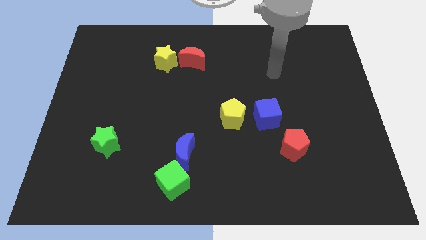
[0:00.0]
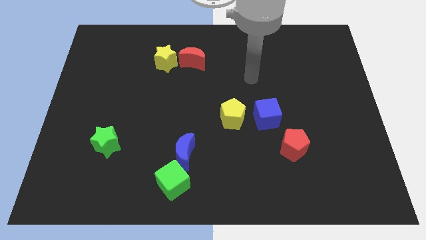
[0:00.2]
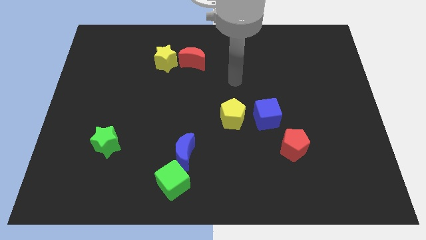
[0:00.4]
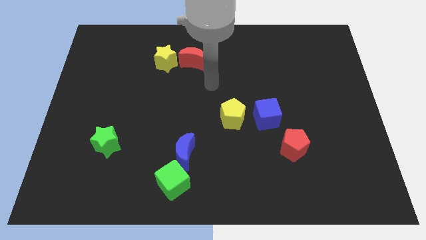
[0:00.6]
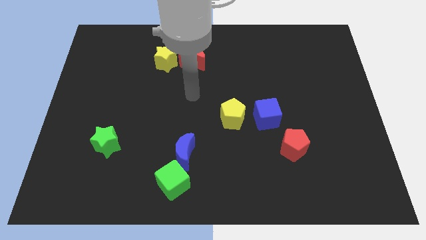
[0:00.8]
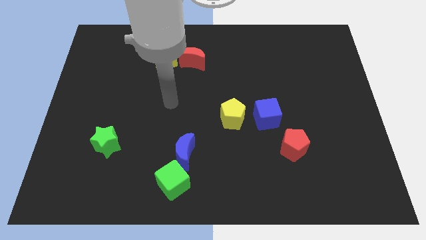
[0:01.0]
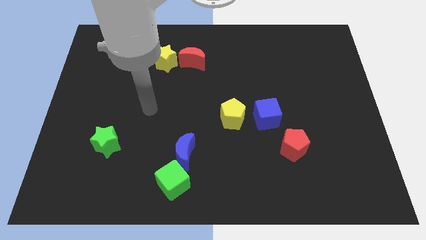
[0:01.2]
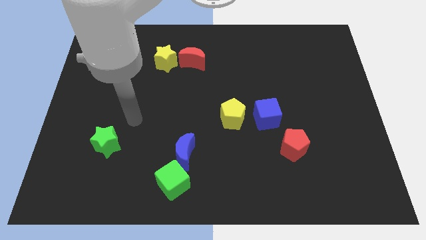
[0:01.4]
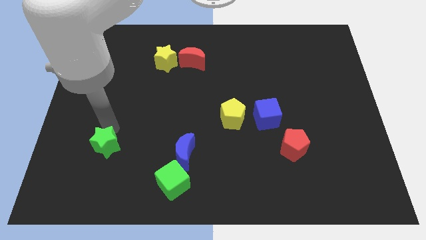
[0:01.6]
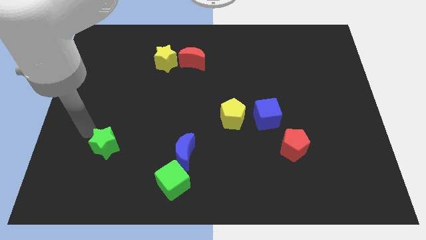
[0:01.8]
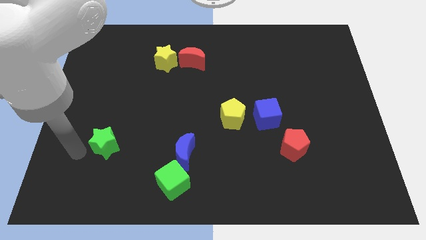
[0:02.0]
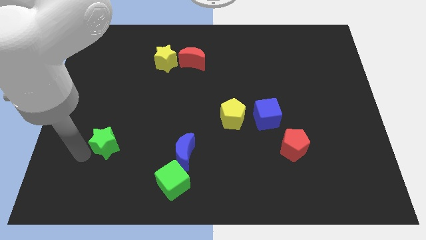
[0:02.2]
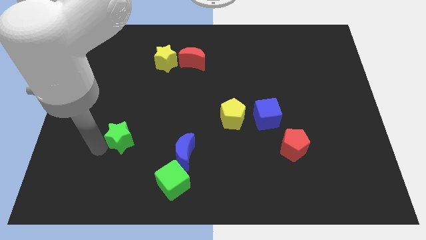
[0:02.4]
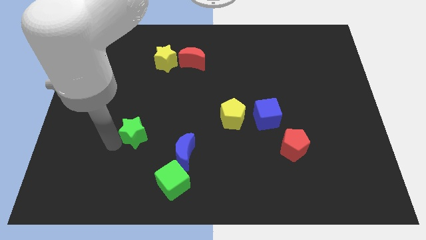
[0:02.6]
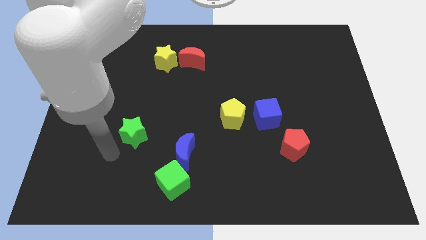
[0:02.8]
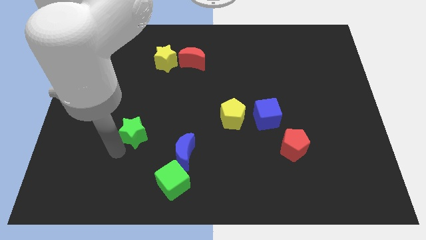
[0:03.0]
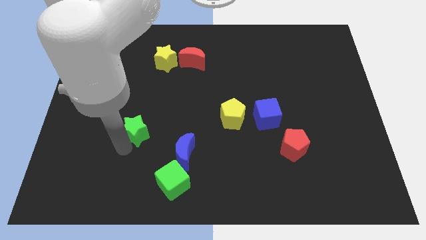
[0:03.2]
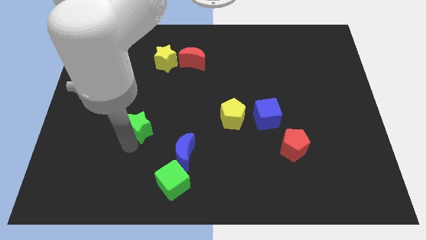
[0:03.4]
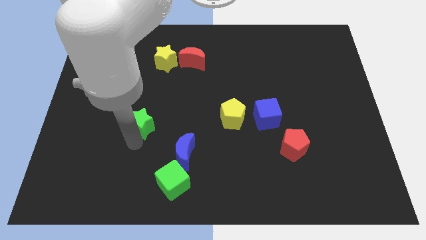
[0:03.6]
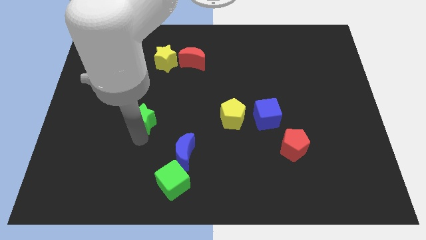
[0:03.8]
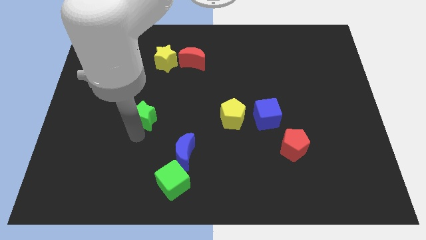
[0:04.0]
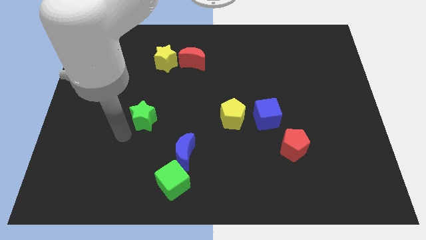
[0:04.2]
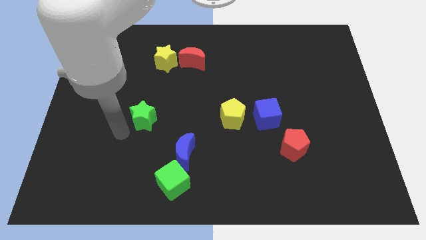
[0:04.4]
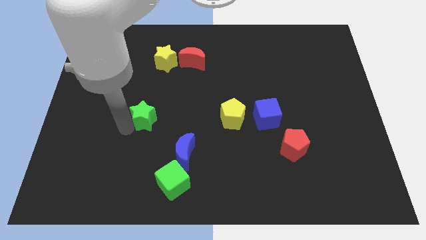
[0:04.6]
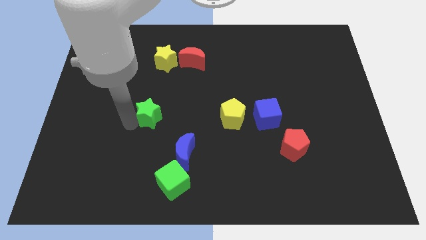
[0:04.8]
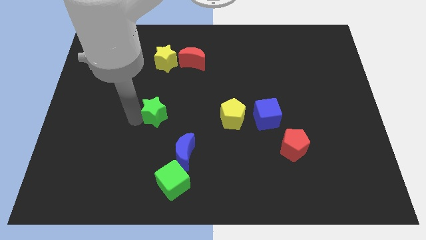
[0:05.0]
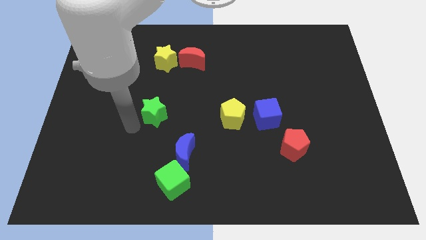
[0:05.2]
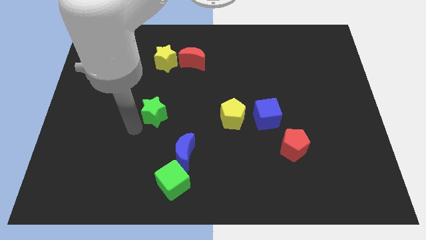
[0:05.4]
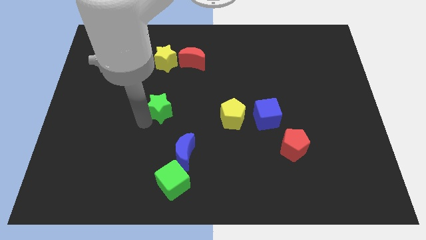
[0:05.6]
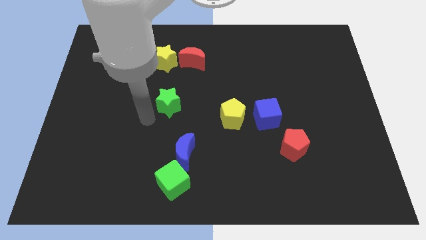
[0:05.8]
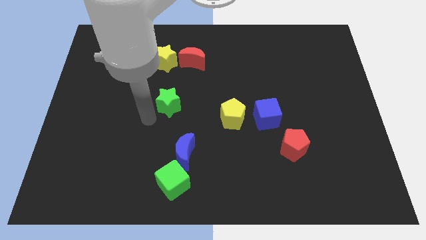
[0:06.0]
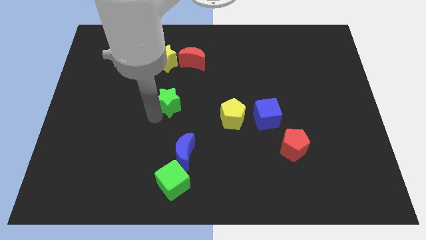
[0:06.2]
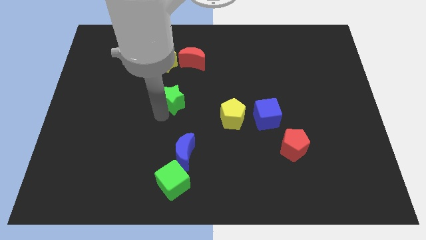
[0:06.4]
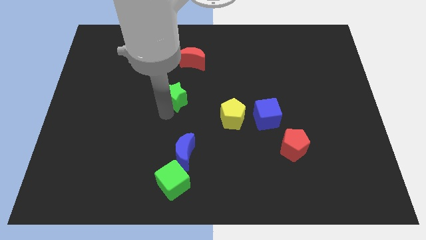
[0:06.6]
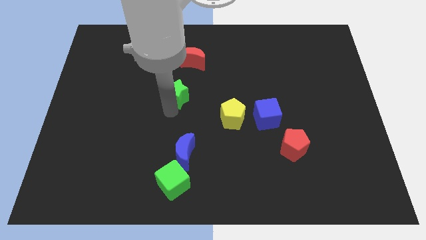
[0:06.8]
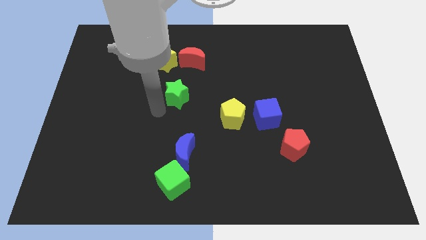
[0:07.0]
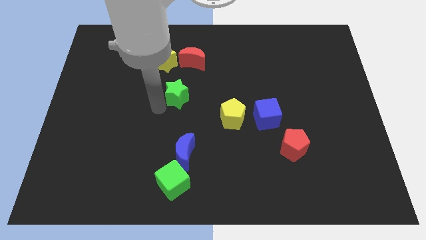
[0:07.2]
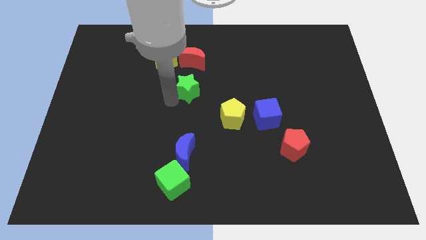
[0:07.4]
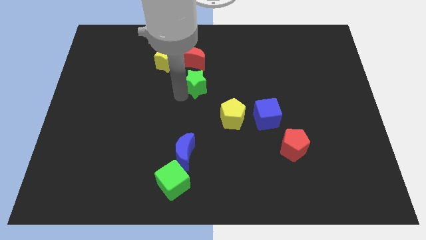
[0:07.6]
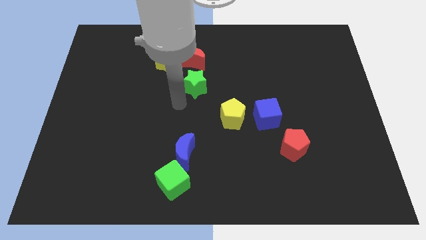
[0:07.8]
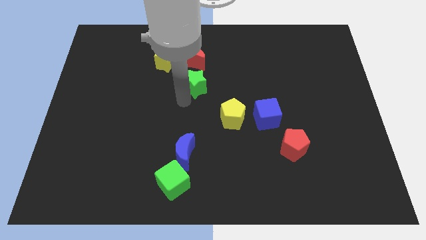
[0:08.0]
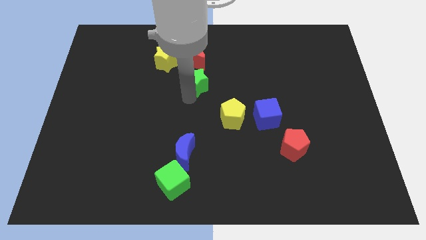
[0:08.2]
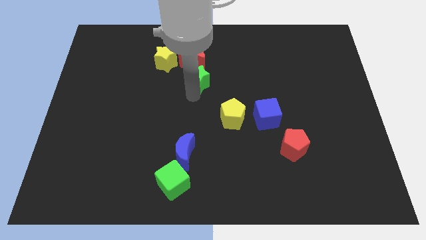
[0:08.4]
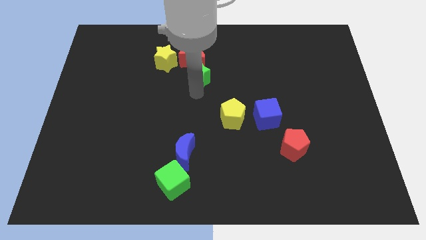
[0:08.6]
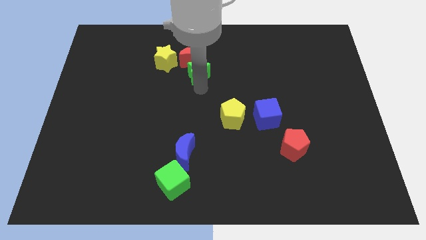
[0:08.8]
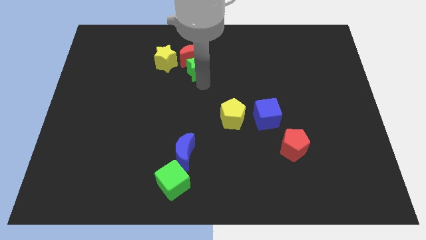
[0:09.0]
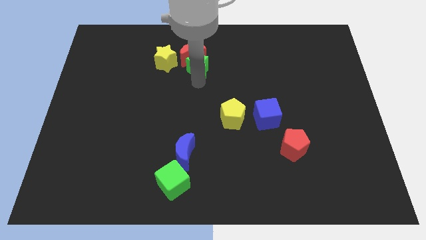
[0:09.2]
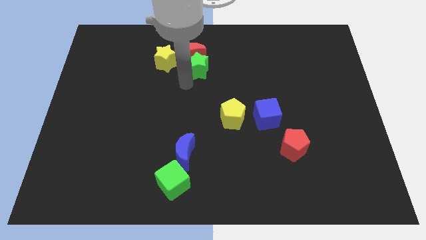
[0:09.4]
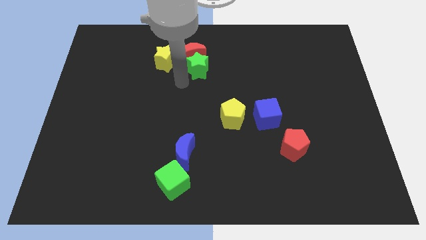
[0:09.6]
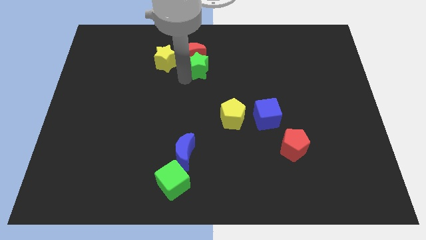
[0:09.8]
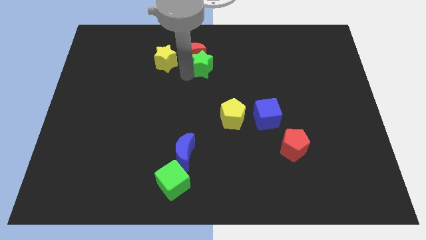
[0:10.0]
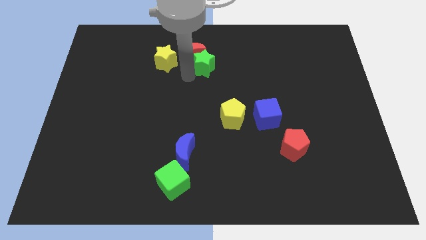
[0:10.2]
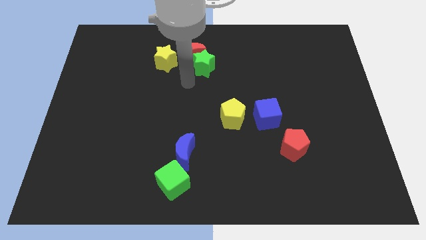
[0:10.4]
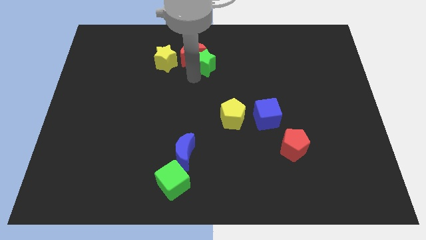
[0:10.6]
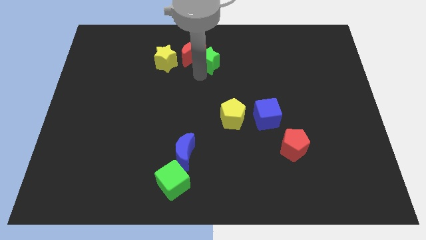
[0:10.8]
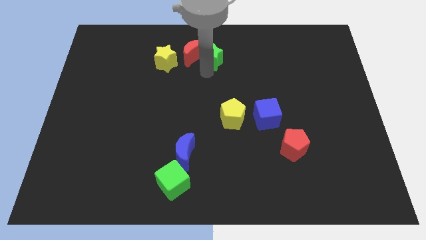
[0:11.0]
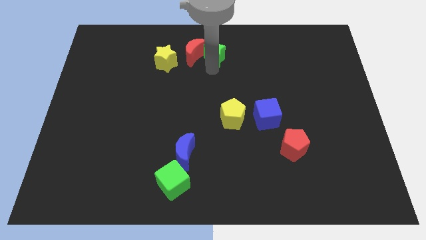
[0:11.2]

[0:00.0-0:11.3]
push the green star to the top

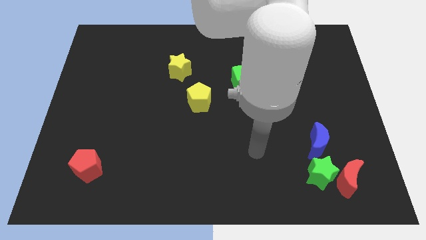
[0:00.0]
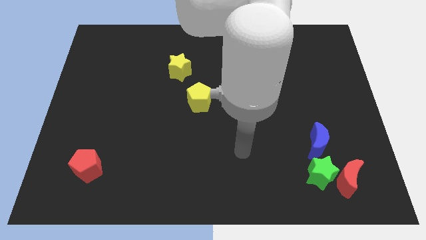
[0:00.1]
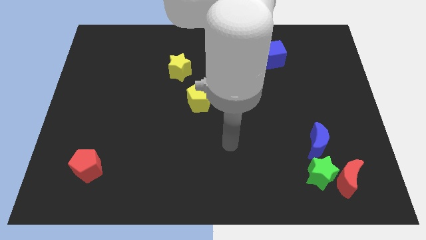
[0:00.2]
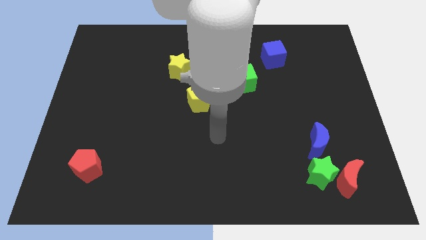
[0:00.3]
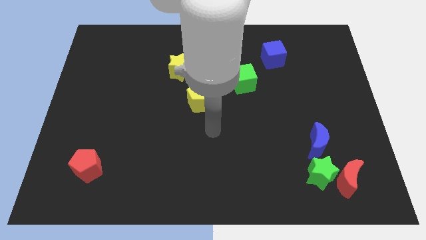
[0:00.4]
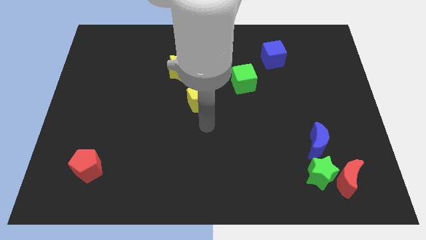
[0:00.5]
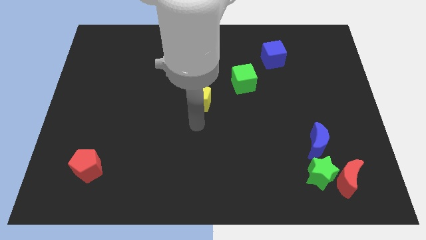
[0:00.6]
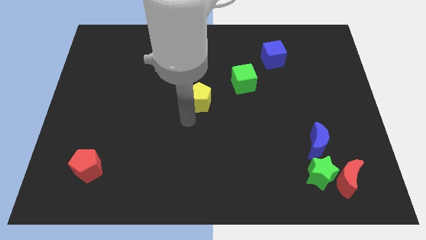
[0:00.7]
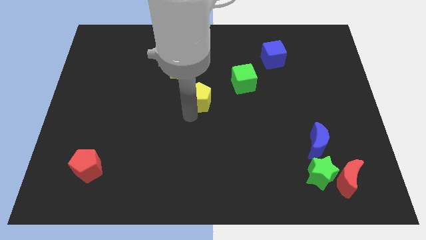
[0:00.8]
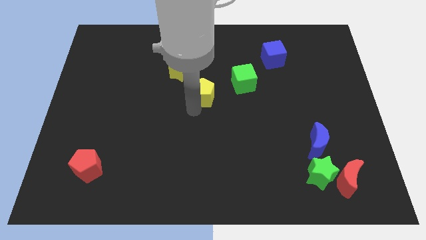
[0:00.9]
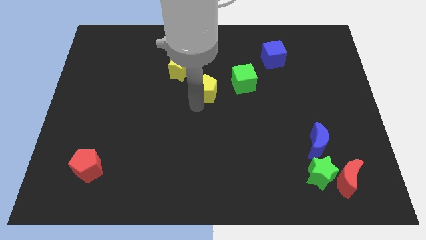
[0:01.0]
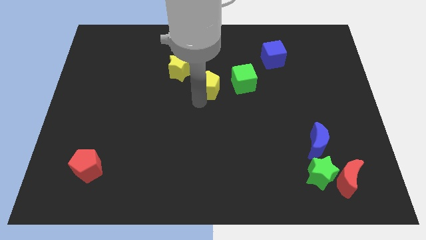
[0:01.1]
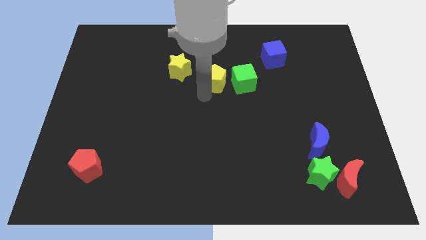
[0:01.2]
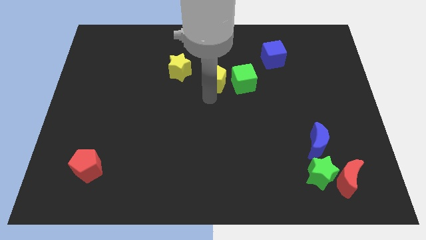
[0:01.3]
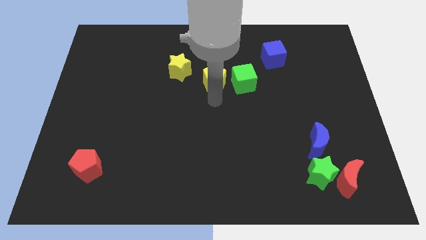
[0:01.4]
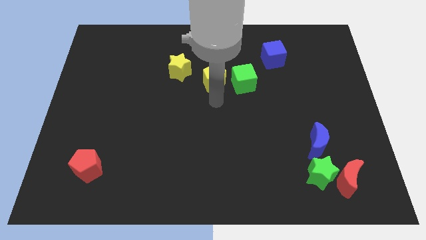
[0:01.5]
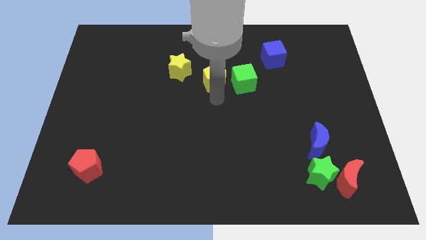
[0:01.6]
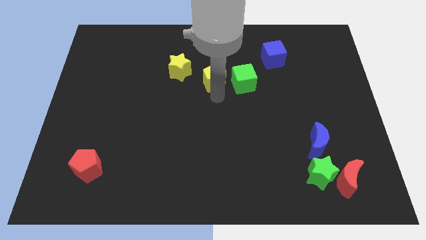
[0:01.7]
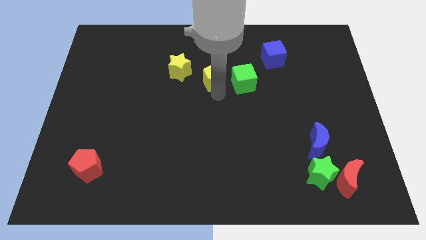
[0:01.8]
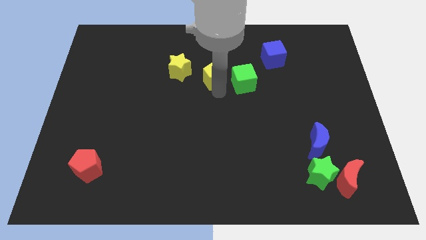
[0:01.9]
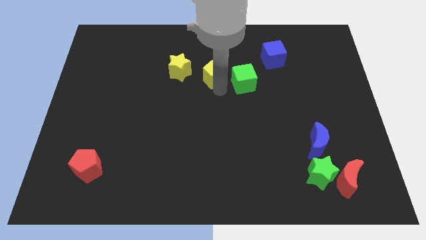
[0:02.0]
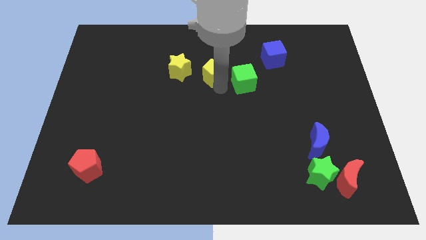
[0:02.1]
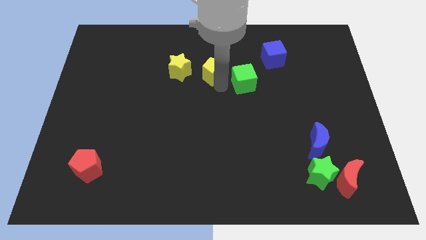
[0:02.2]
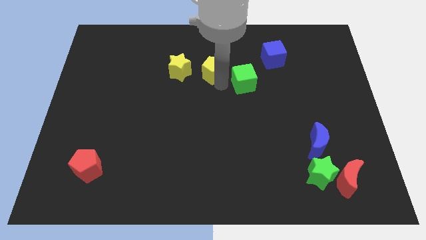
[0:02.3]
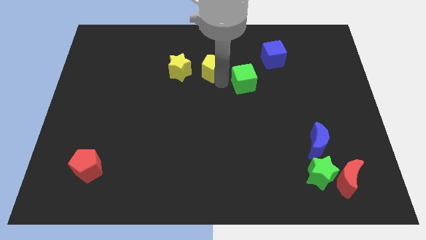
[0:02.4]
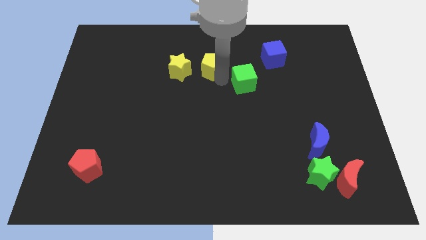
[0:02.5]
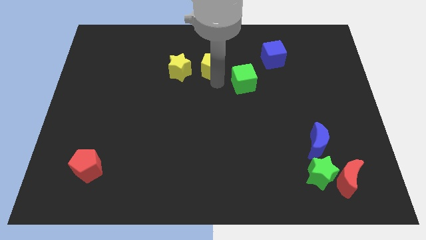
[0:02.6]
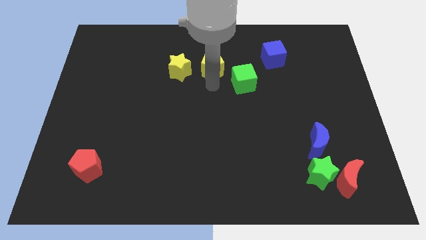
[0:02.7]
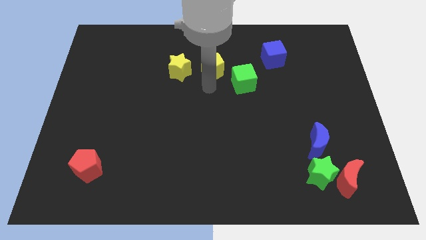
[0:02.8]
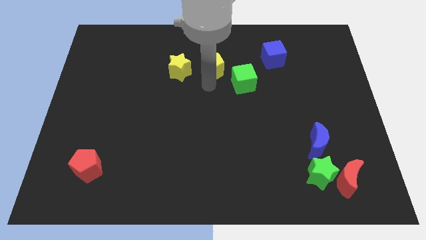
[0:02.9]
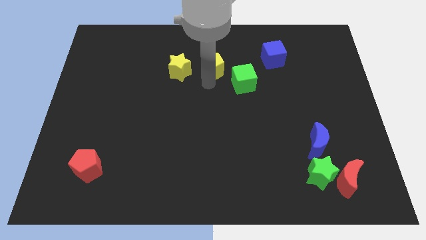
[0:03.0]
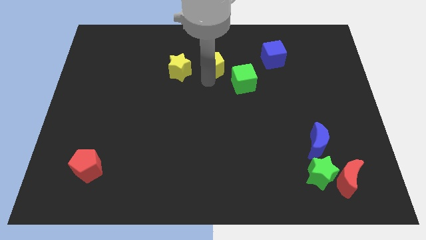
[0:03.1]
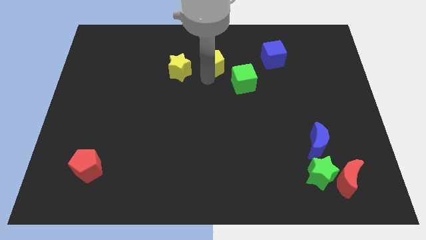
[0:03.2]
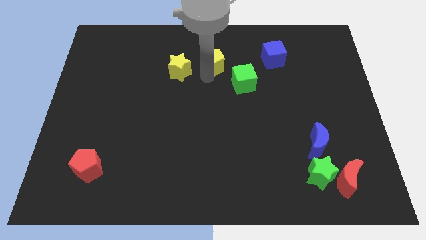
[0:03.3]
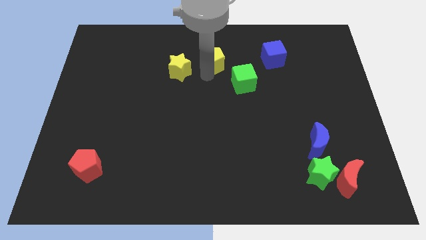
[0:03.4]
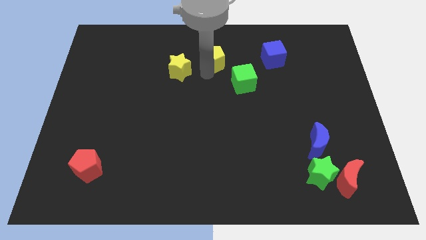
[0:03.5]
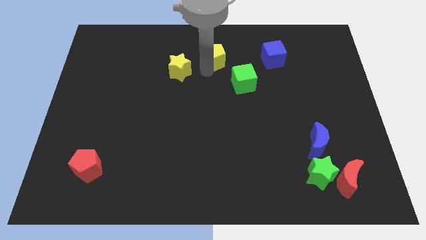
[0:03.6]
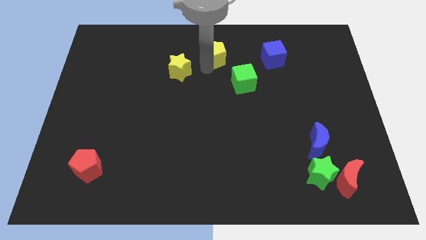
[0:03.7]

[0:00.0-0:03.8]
slide the yellow pentagon to the top side
